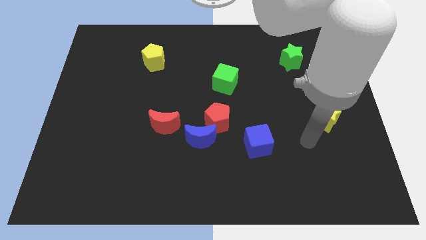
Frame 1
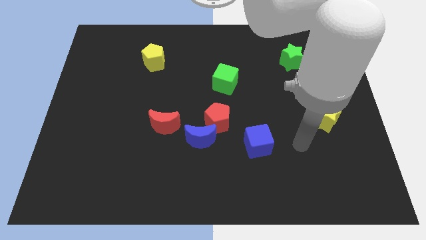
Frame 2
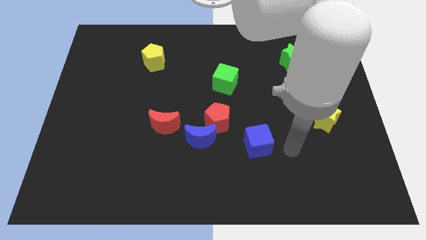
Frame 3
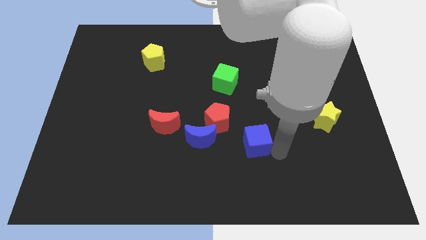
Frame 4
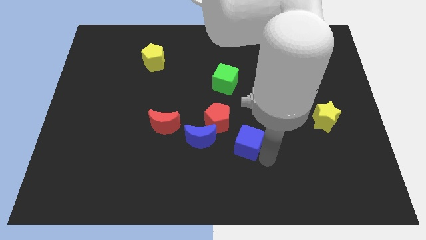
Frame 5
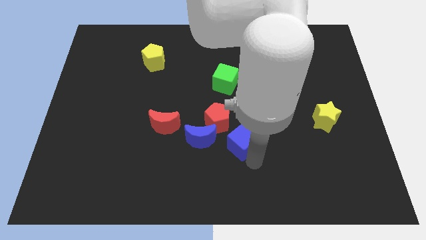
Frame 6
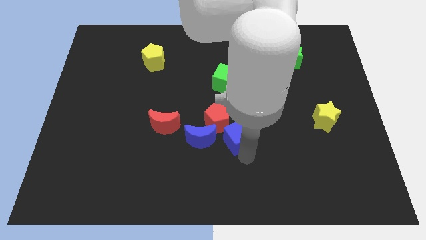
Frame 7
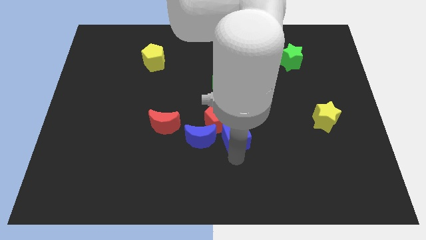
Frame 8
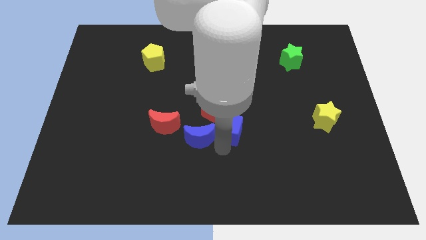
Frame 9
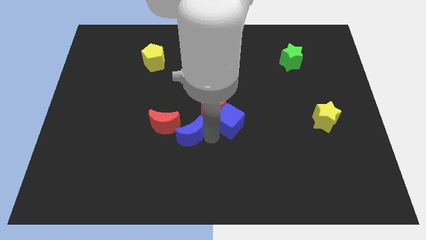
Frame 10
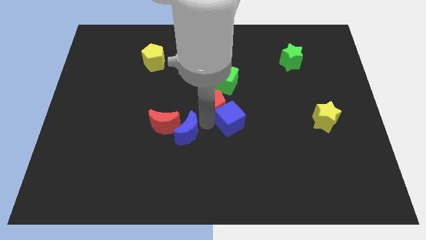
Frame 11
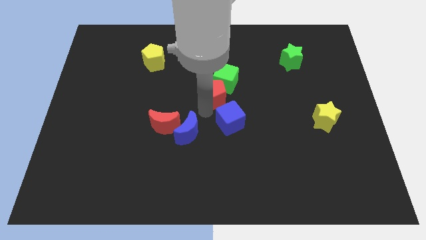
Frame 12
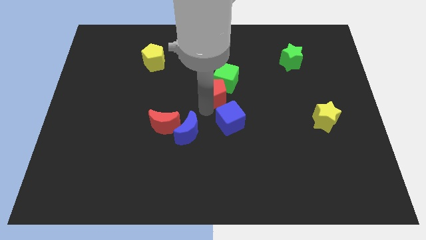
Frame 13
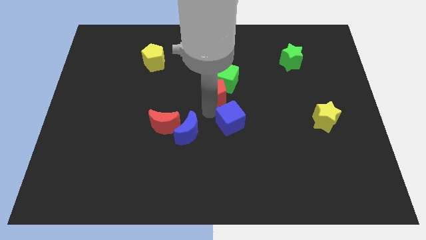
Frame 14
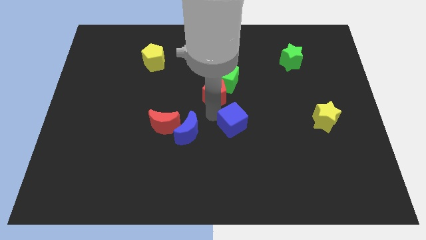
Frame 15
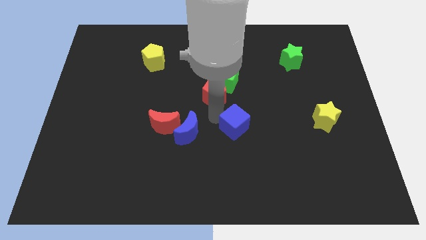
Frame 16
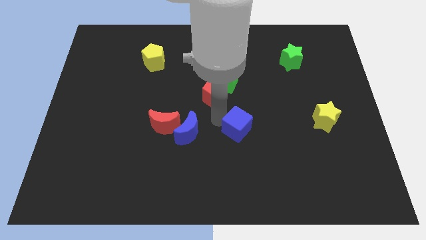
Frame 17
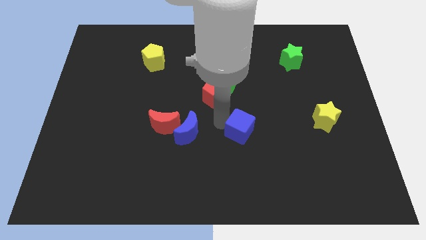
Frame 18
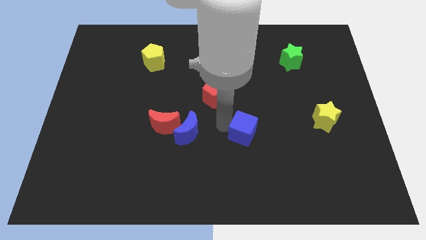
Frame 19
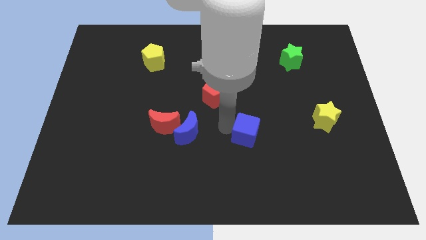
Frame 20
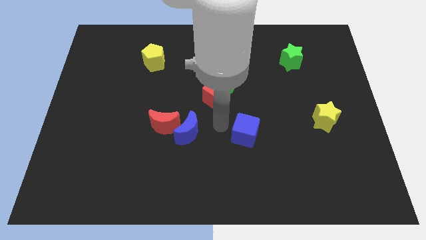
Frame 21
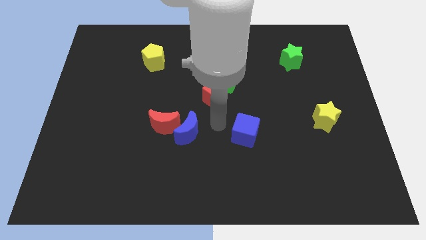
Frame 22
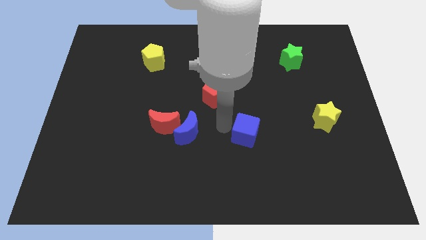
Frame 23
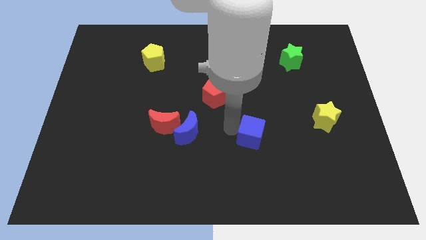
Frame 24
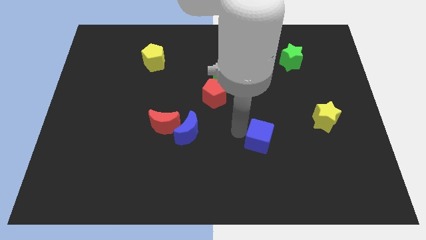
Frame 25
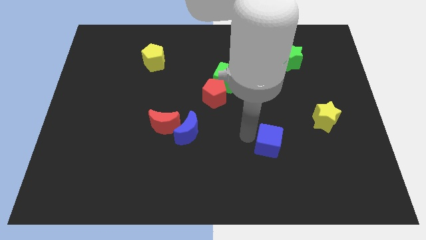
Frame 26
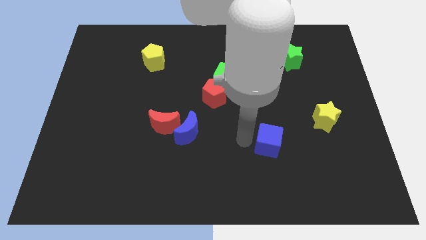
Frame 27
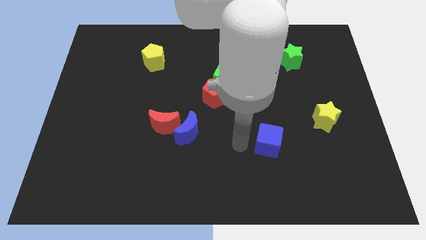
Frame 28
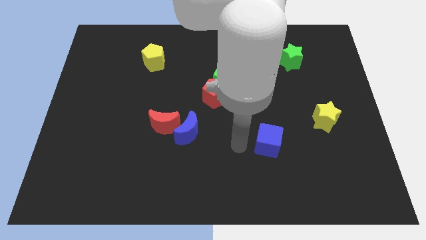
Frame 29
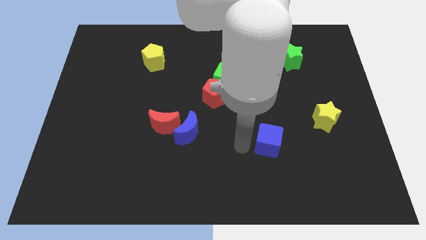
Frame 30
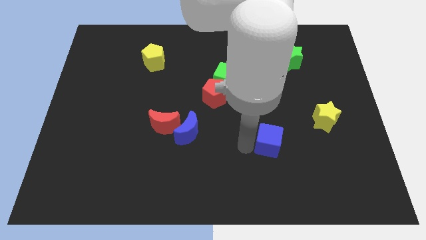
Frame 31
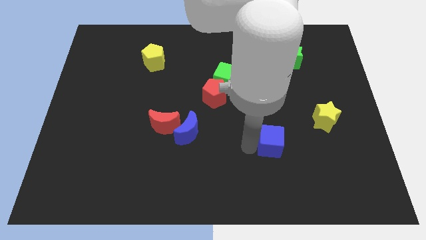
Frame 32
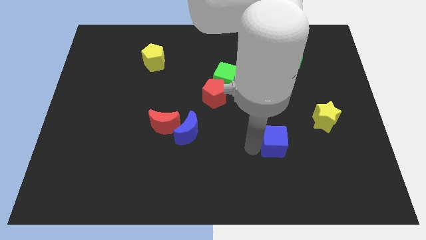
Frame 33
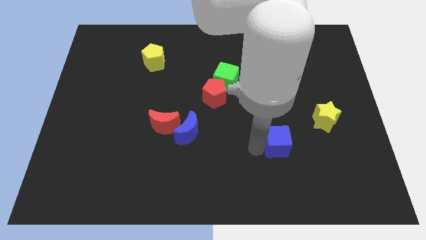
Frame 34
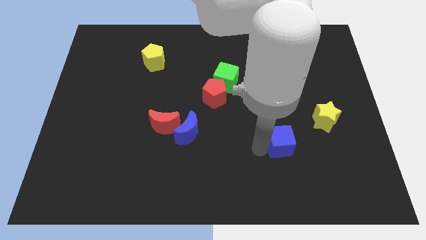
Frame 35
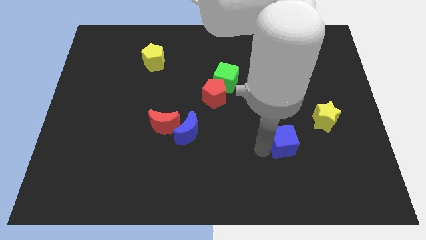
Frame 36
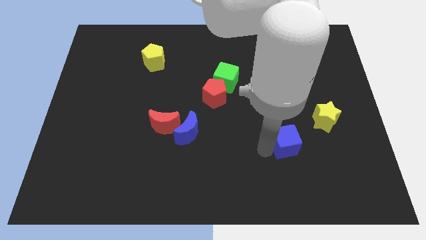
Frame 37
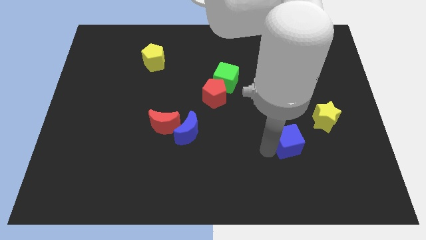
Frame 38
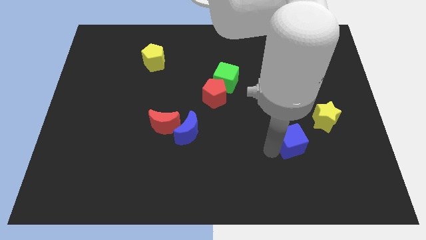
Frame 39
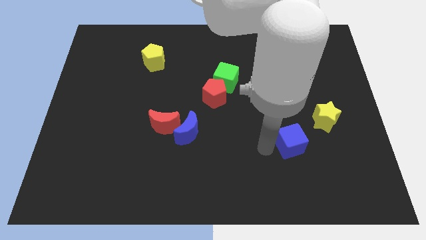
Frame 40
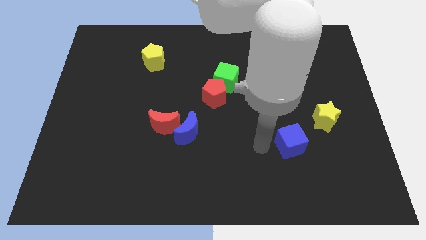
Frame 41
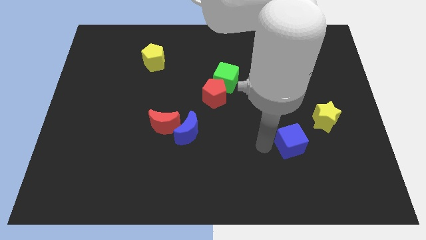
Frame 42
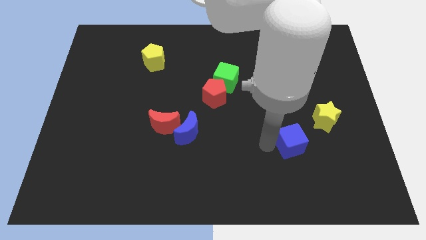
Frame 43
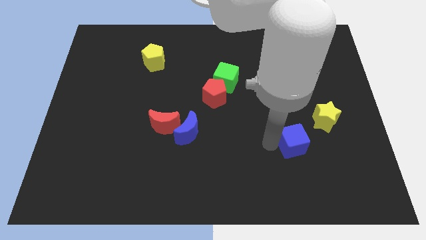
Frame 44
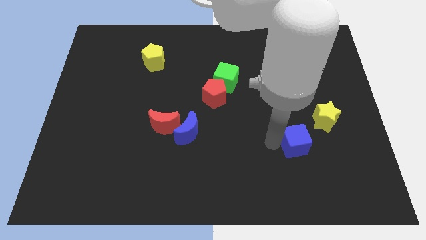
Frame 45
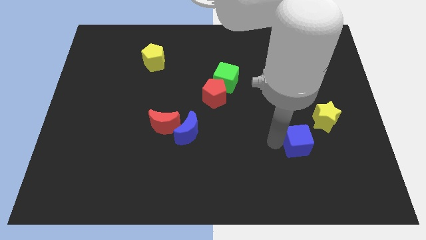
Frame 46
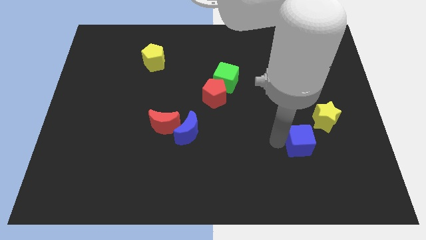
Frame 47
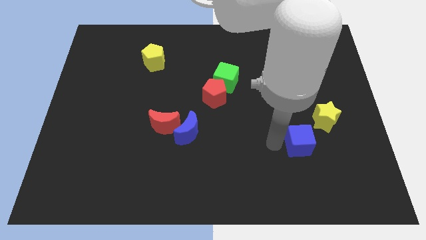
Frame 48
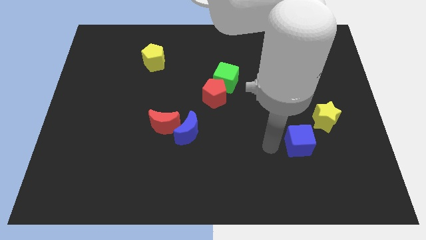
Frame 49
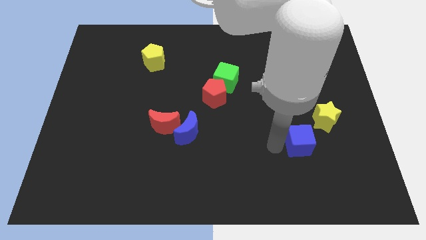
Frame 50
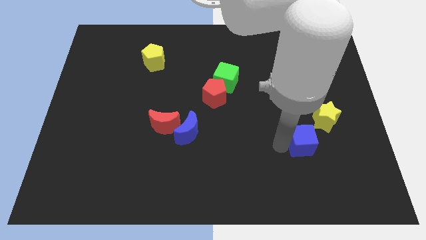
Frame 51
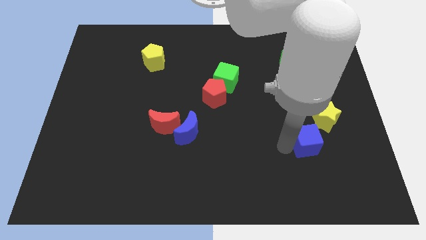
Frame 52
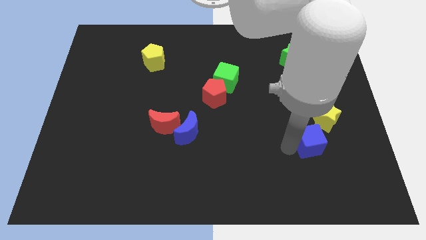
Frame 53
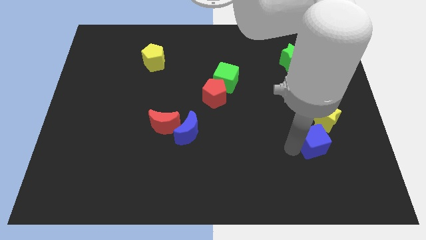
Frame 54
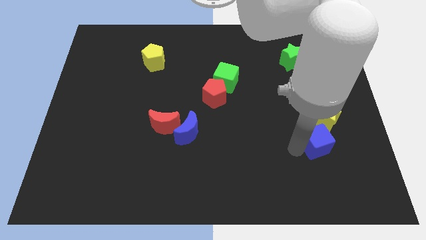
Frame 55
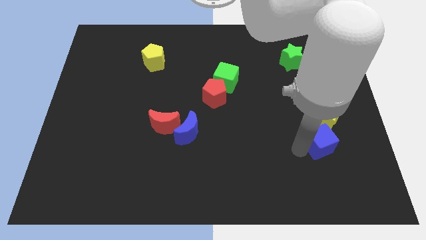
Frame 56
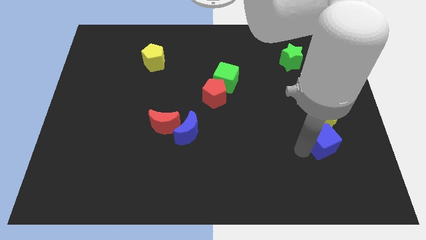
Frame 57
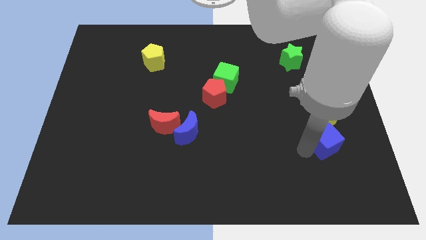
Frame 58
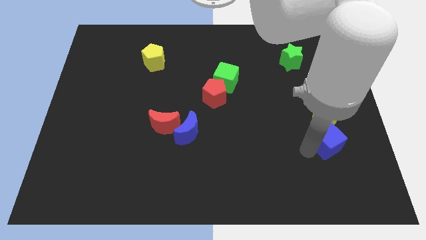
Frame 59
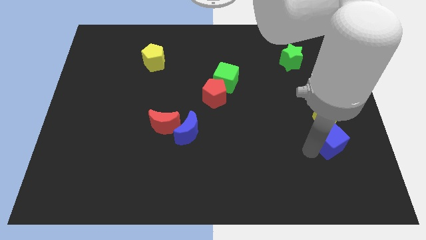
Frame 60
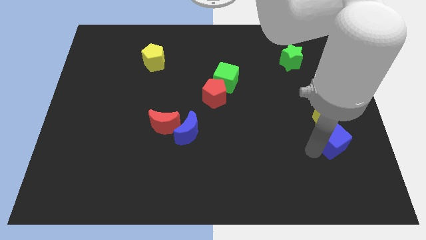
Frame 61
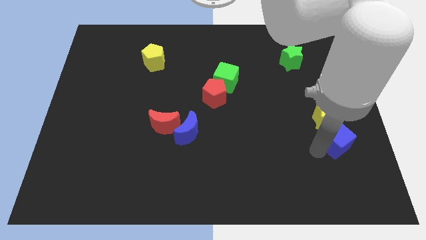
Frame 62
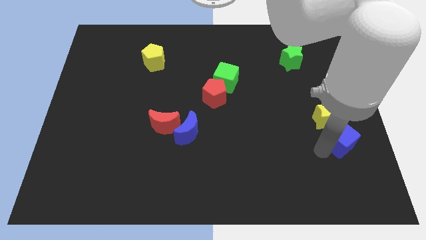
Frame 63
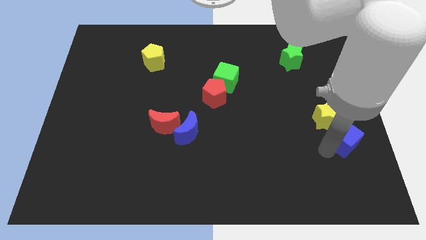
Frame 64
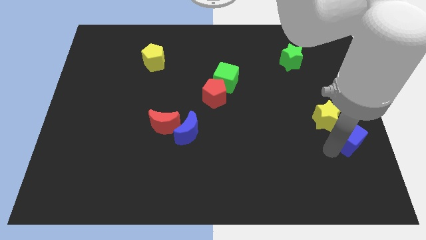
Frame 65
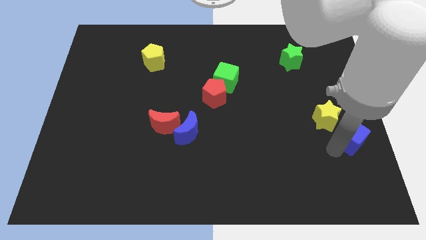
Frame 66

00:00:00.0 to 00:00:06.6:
put the blue cube to the right side of the board

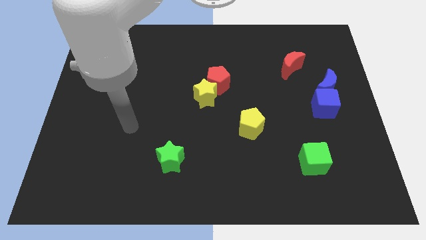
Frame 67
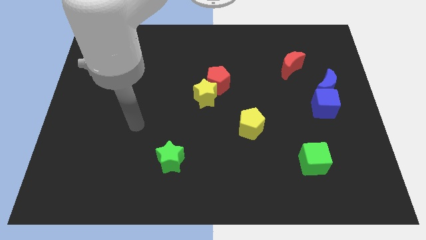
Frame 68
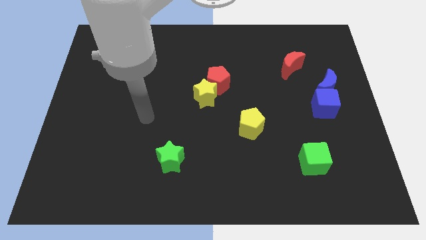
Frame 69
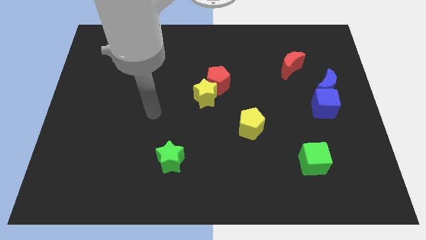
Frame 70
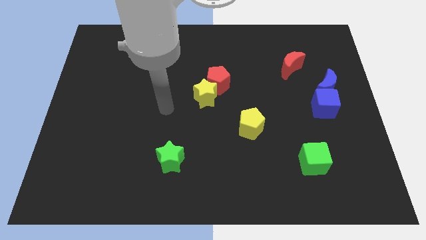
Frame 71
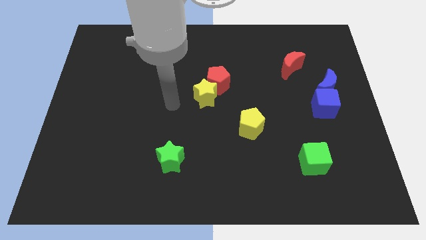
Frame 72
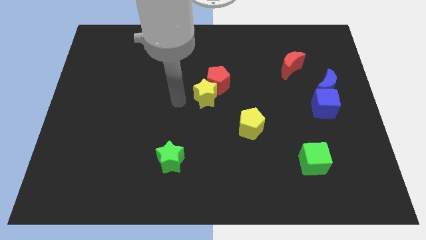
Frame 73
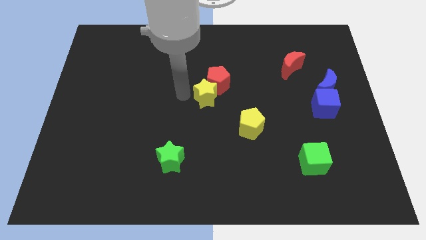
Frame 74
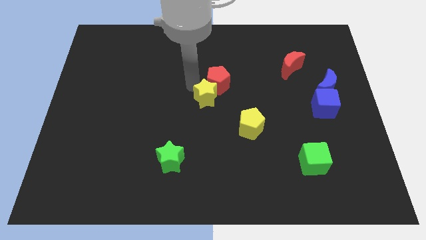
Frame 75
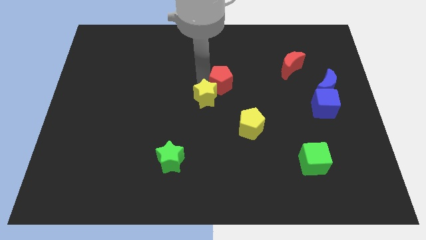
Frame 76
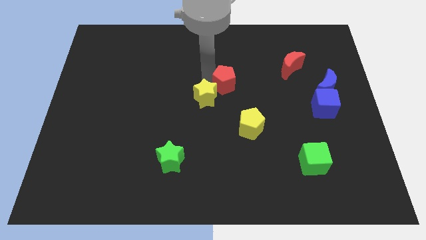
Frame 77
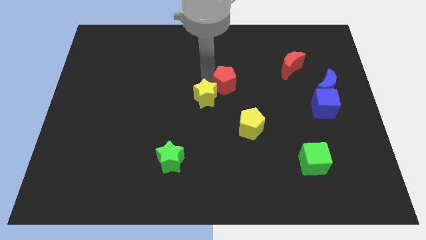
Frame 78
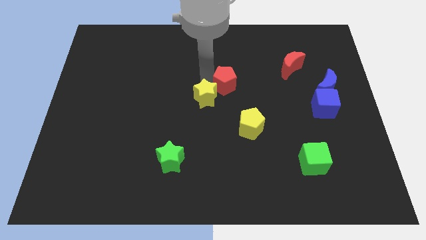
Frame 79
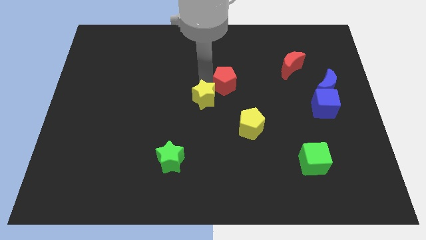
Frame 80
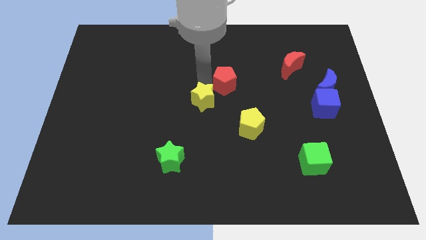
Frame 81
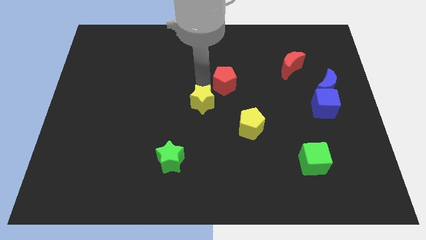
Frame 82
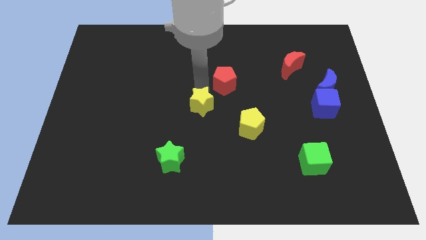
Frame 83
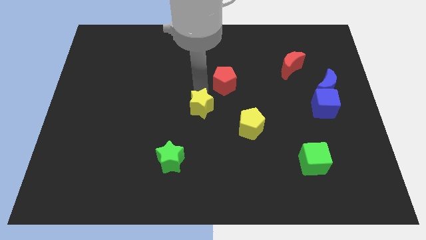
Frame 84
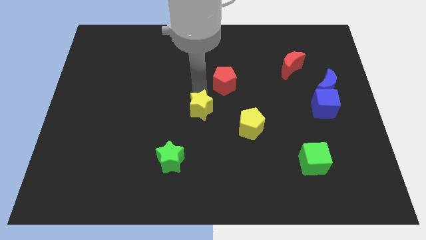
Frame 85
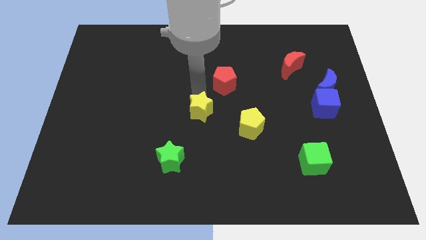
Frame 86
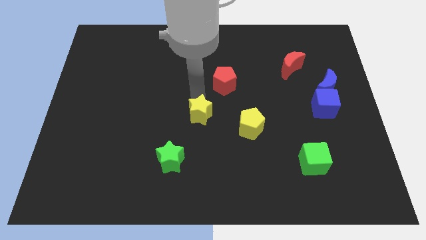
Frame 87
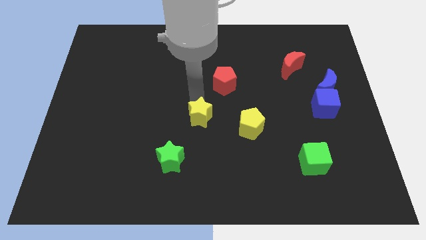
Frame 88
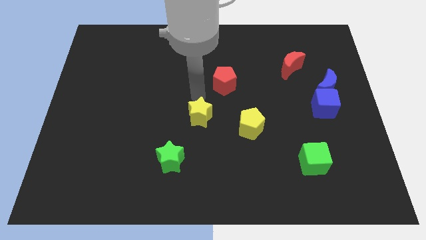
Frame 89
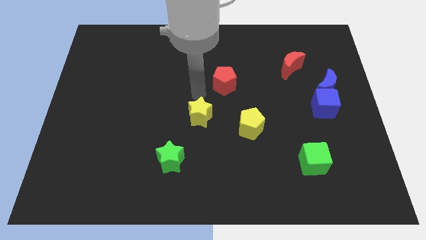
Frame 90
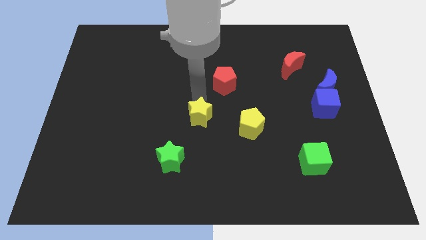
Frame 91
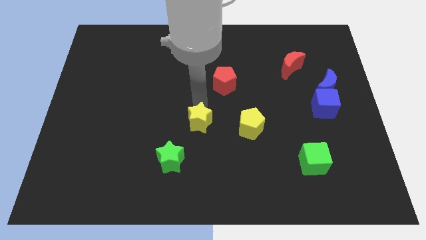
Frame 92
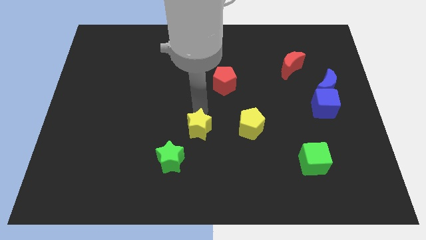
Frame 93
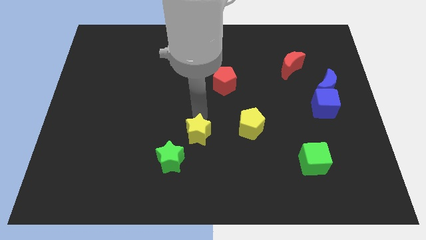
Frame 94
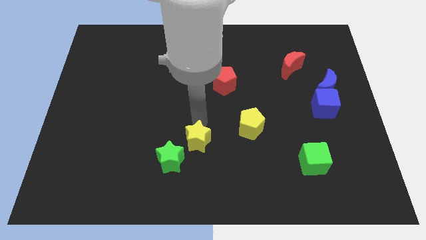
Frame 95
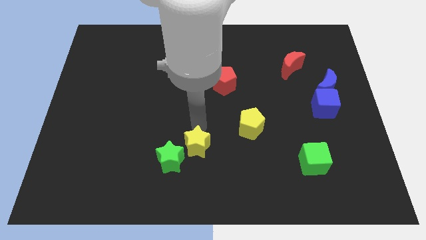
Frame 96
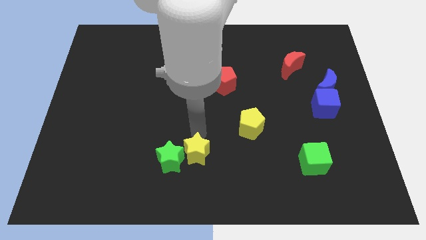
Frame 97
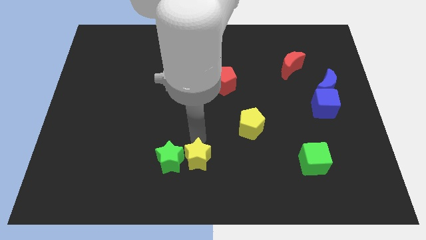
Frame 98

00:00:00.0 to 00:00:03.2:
slide the yellow star to the bottom
